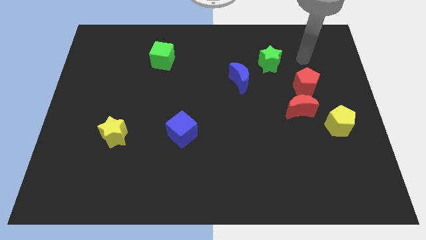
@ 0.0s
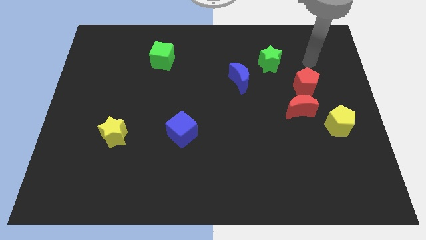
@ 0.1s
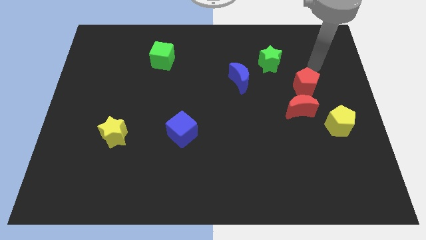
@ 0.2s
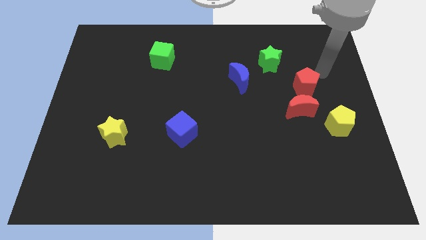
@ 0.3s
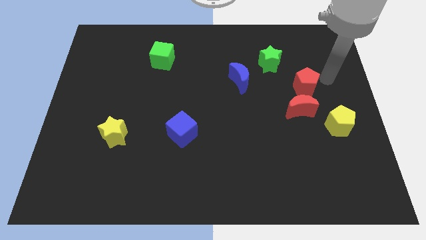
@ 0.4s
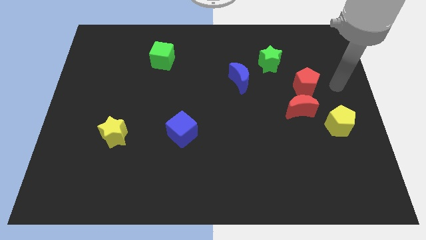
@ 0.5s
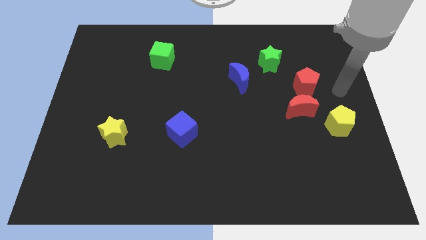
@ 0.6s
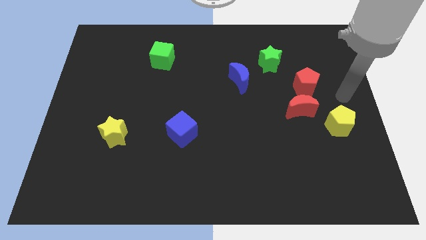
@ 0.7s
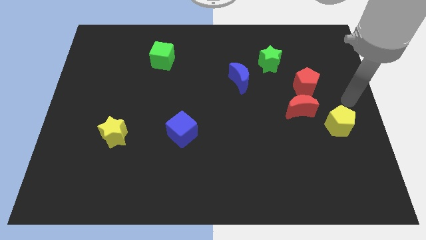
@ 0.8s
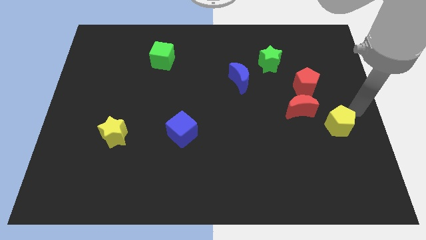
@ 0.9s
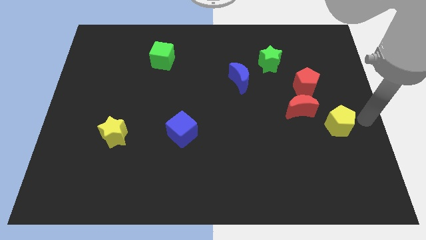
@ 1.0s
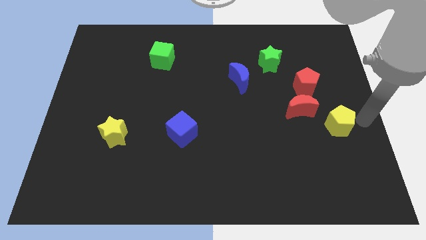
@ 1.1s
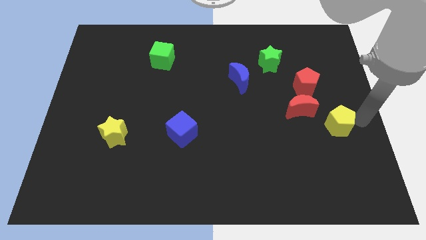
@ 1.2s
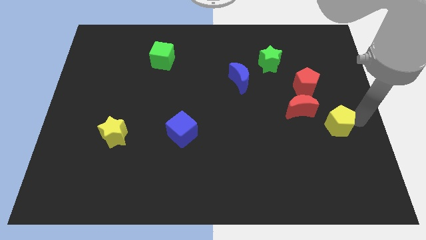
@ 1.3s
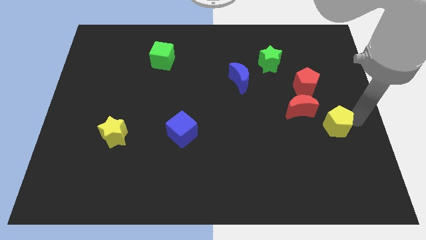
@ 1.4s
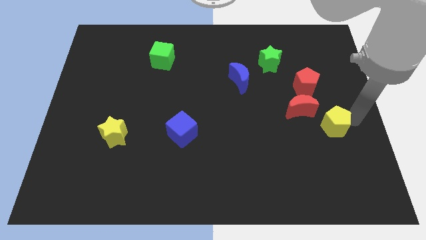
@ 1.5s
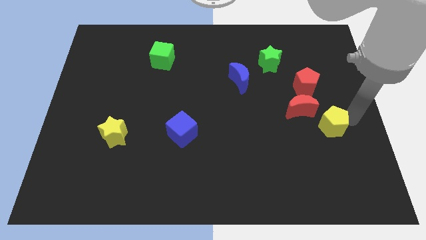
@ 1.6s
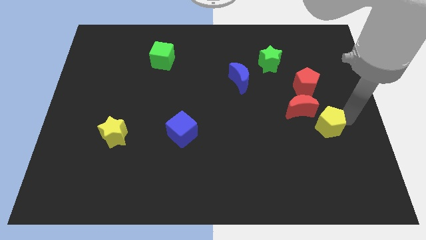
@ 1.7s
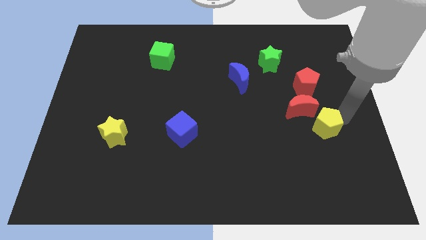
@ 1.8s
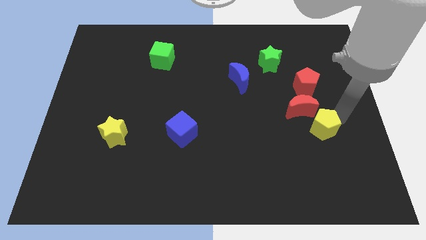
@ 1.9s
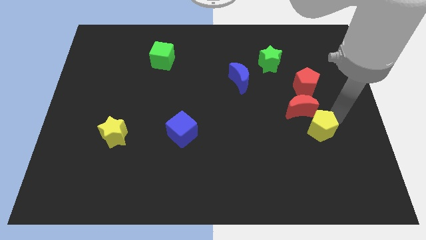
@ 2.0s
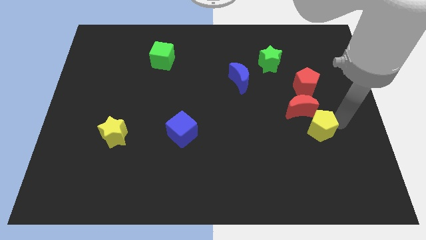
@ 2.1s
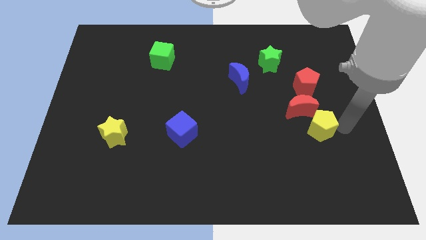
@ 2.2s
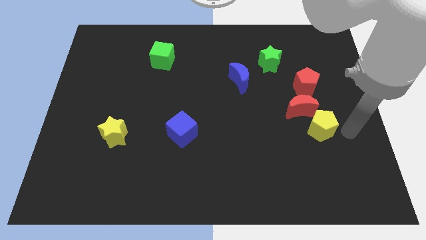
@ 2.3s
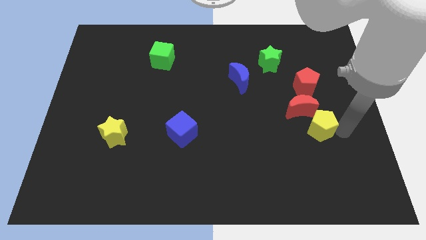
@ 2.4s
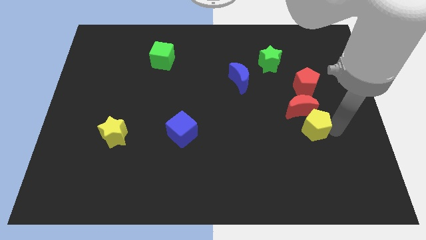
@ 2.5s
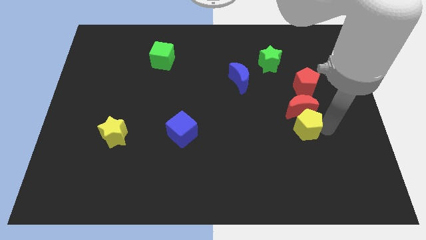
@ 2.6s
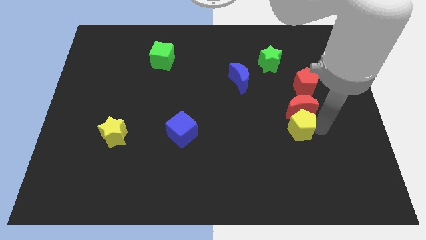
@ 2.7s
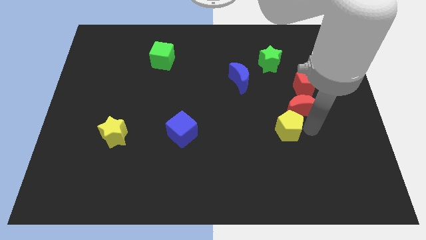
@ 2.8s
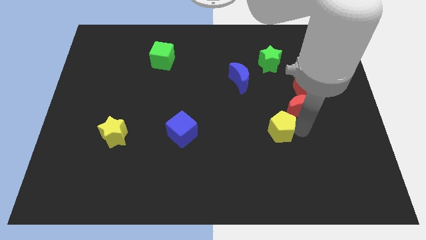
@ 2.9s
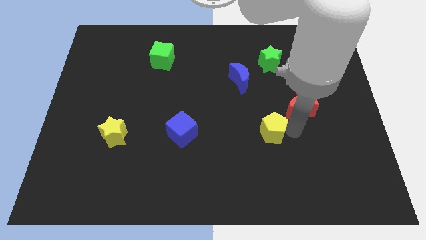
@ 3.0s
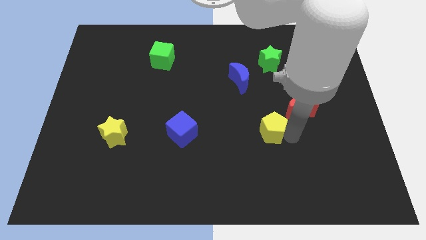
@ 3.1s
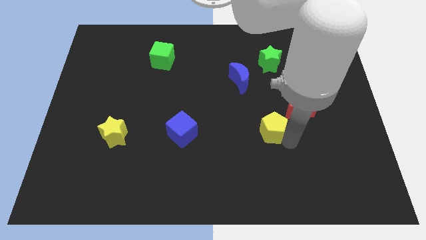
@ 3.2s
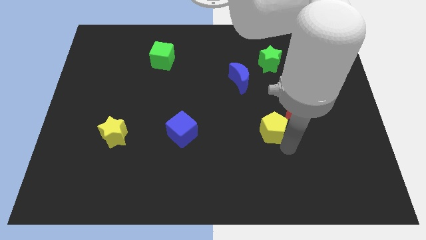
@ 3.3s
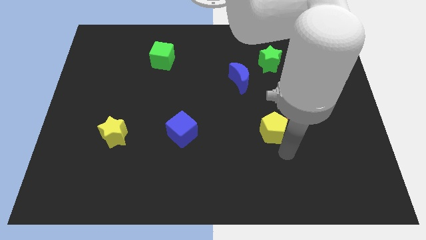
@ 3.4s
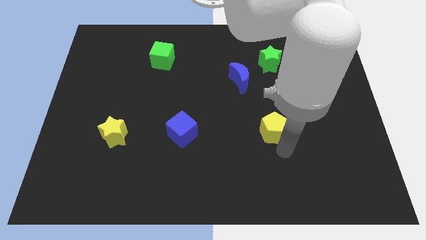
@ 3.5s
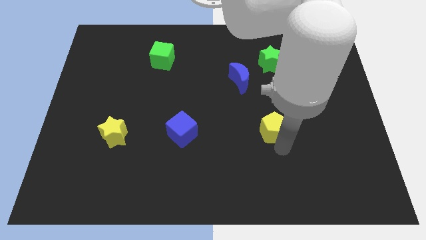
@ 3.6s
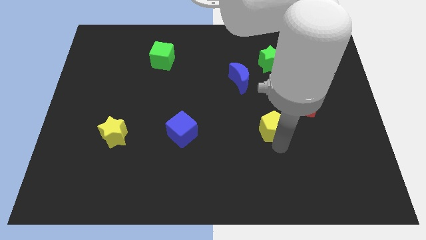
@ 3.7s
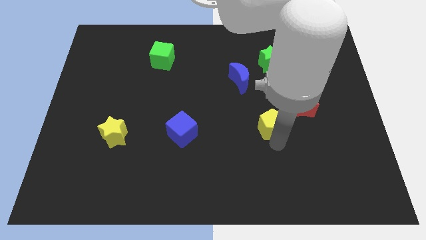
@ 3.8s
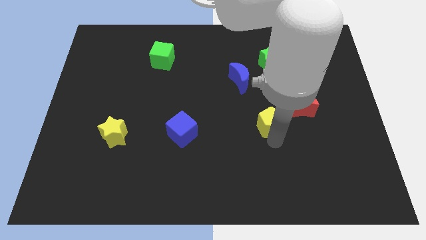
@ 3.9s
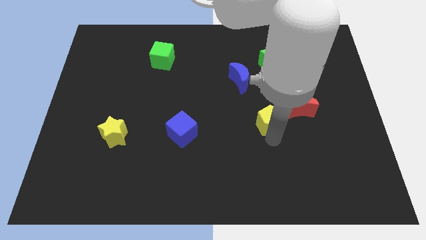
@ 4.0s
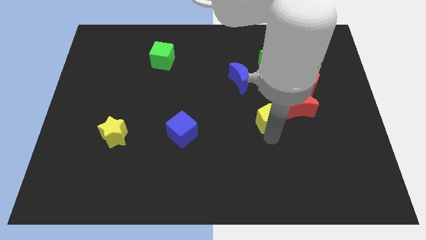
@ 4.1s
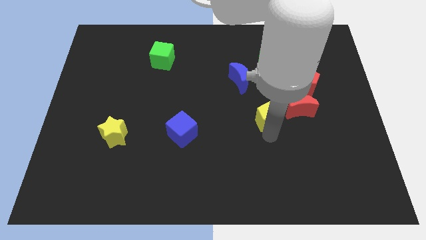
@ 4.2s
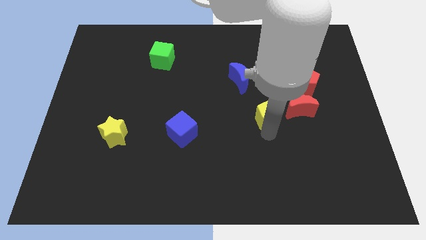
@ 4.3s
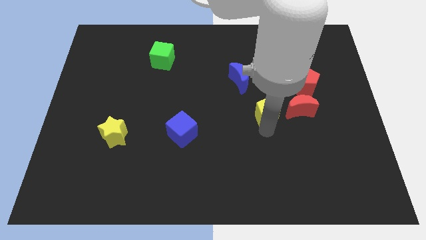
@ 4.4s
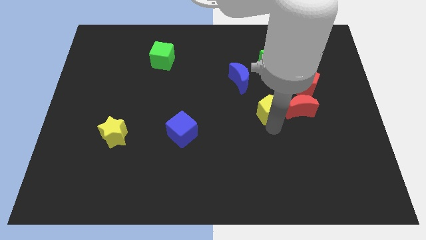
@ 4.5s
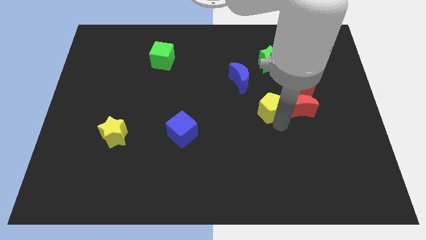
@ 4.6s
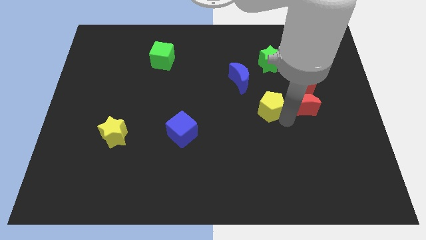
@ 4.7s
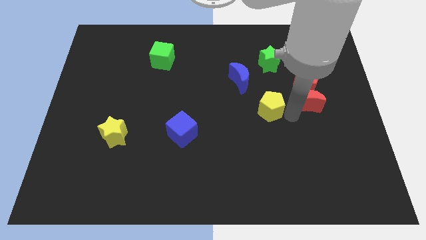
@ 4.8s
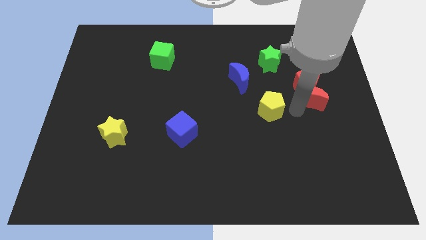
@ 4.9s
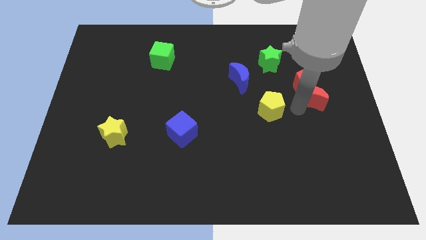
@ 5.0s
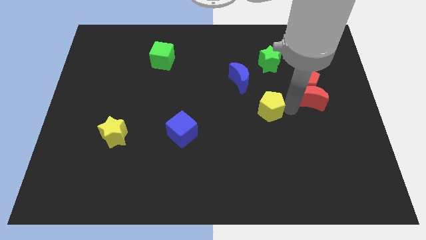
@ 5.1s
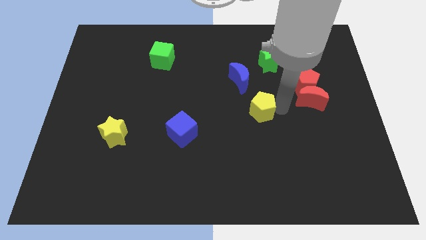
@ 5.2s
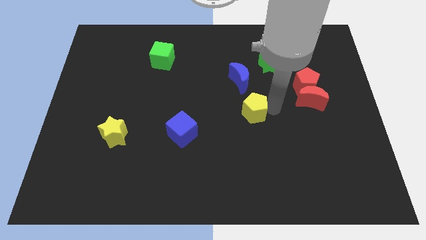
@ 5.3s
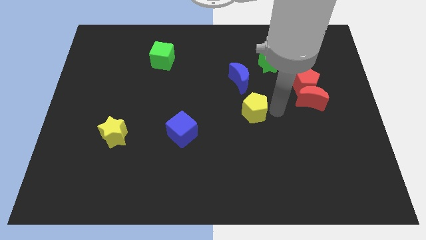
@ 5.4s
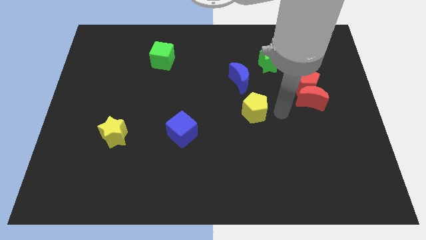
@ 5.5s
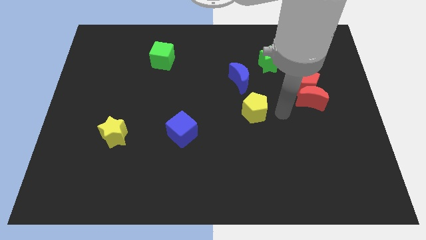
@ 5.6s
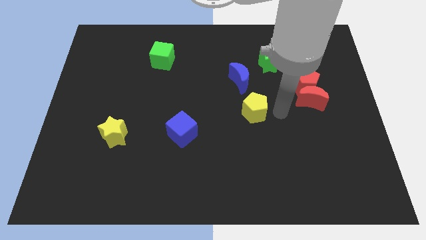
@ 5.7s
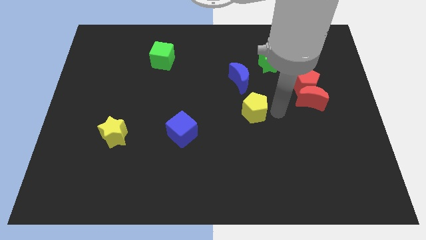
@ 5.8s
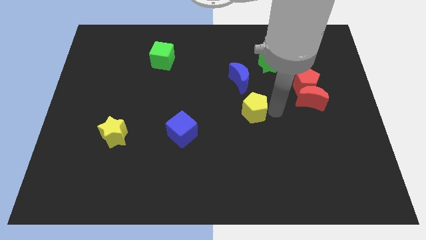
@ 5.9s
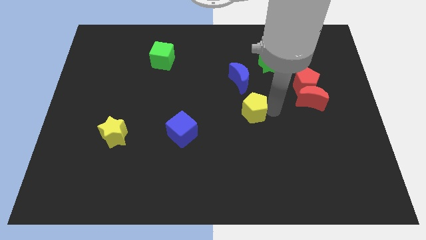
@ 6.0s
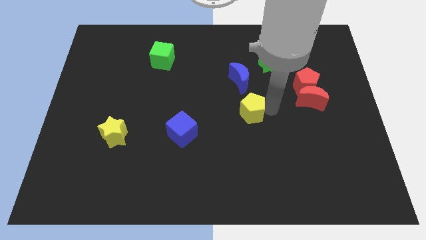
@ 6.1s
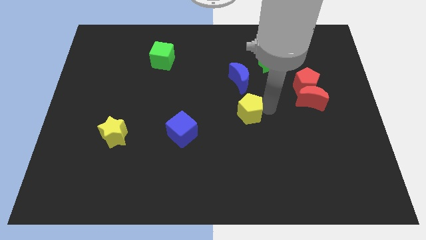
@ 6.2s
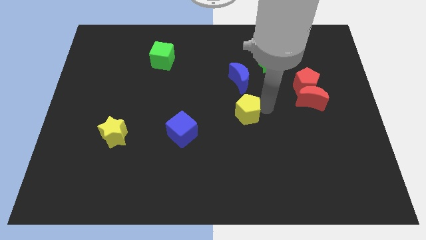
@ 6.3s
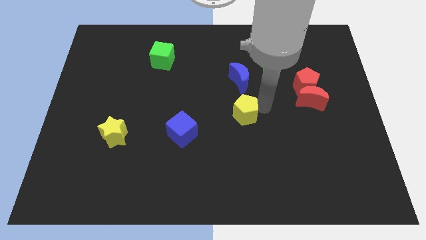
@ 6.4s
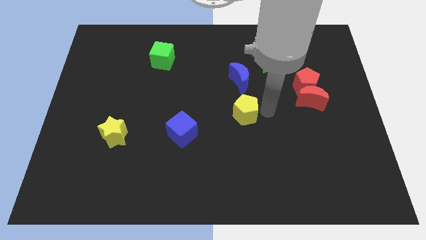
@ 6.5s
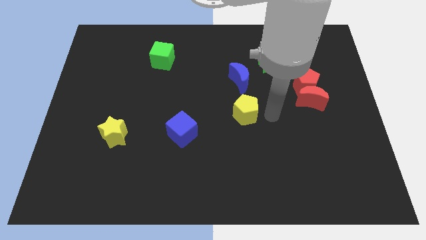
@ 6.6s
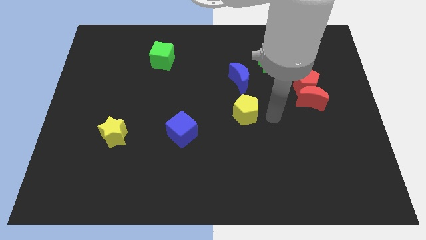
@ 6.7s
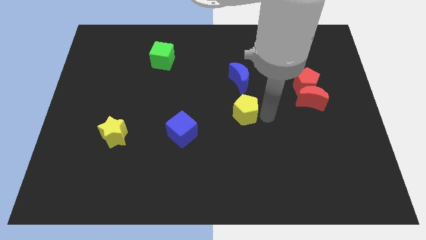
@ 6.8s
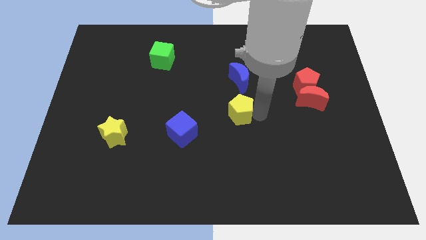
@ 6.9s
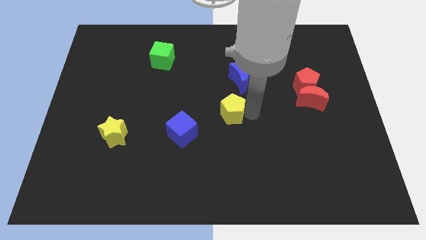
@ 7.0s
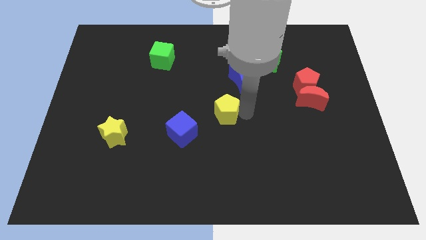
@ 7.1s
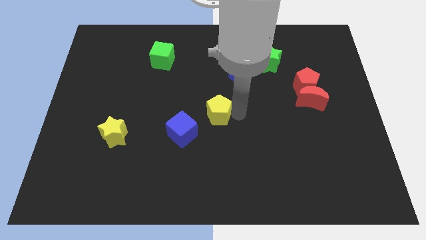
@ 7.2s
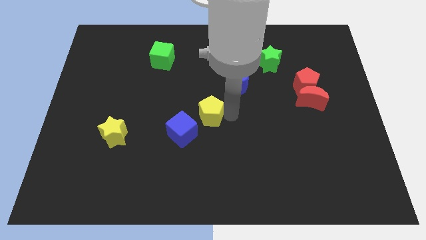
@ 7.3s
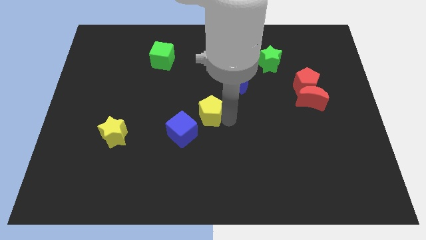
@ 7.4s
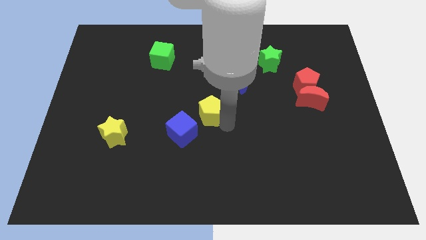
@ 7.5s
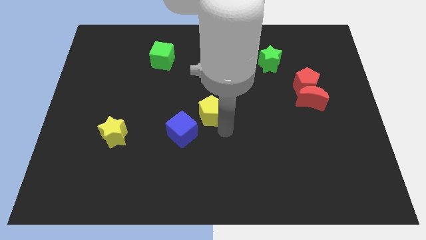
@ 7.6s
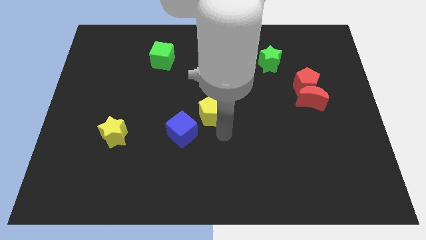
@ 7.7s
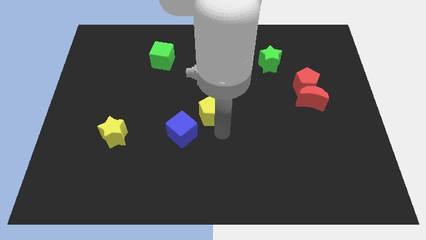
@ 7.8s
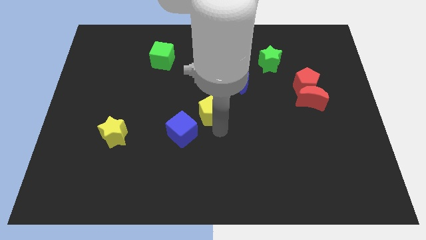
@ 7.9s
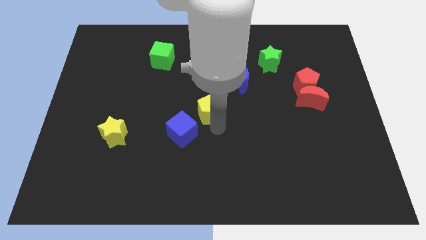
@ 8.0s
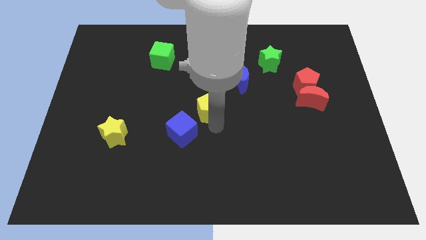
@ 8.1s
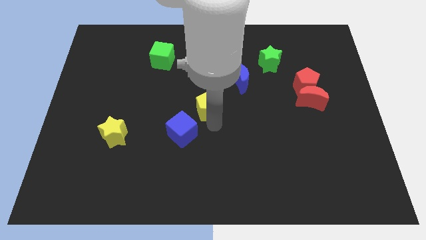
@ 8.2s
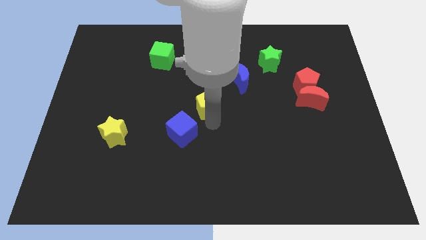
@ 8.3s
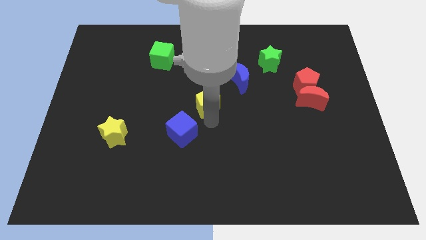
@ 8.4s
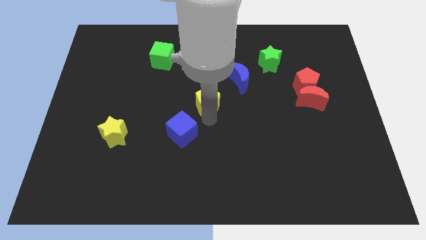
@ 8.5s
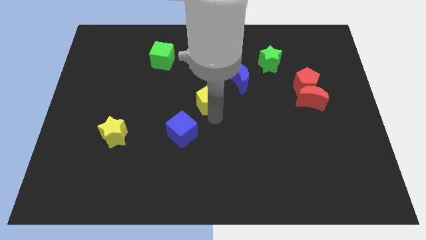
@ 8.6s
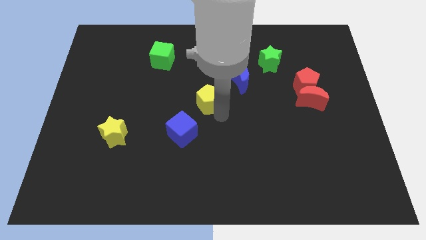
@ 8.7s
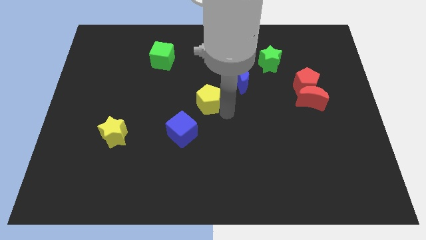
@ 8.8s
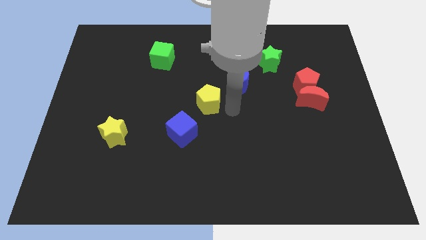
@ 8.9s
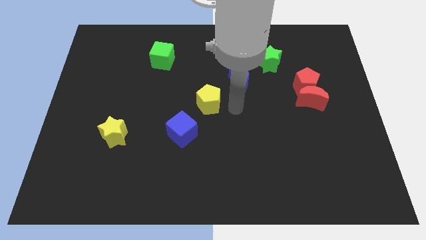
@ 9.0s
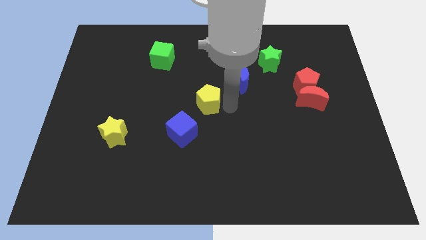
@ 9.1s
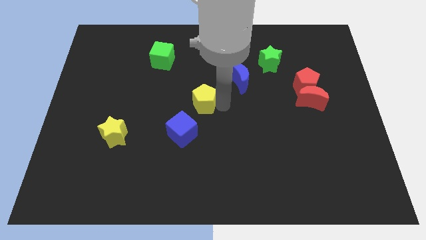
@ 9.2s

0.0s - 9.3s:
push the yellow pentagon above the blue cube
